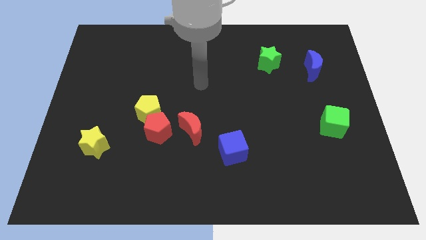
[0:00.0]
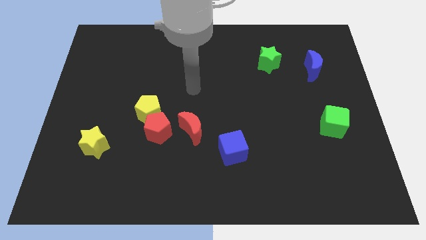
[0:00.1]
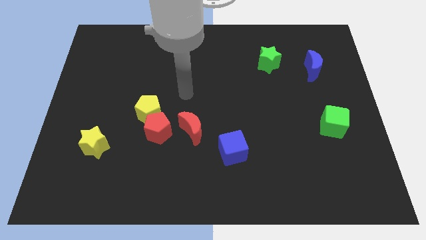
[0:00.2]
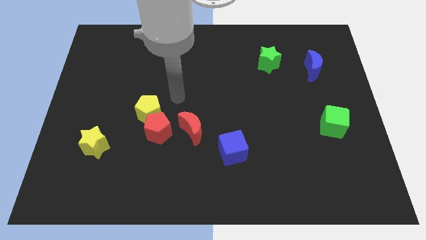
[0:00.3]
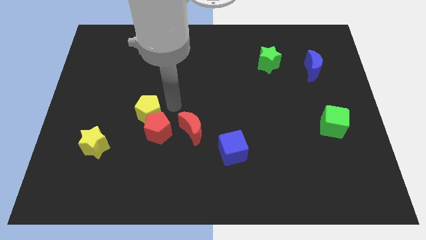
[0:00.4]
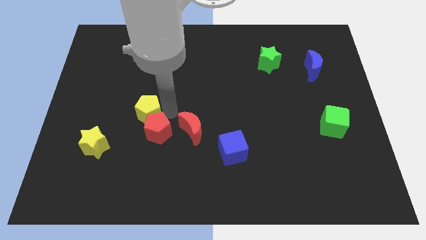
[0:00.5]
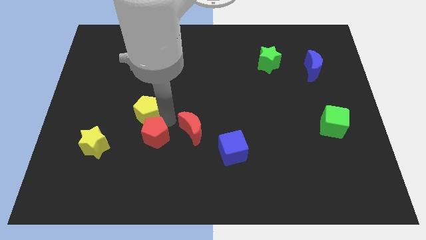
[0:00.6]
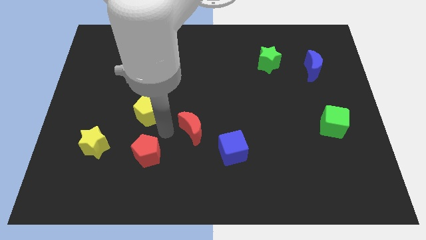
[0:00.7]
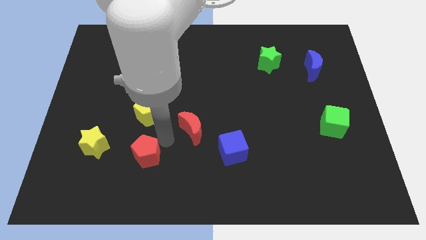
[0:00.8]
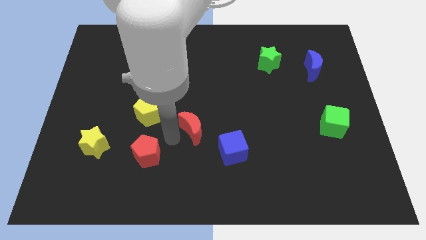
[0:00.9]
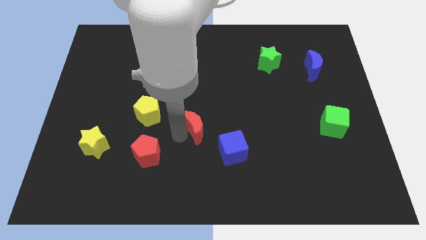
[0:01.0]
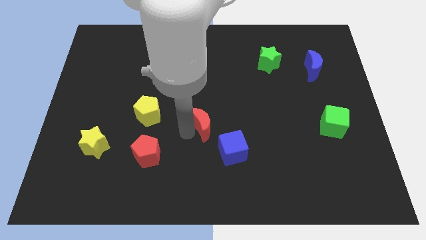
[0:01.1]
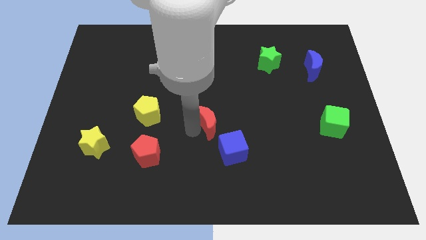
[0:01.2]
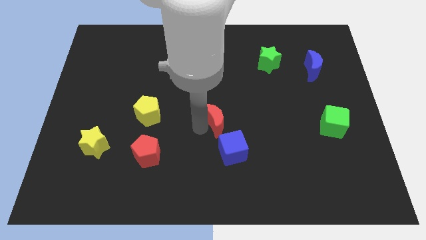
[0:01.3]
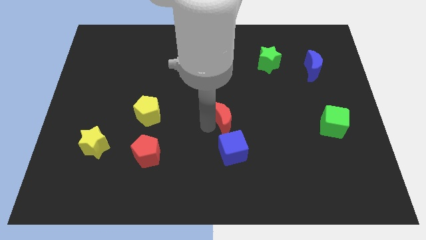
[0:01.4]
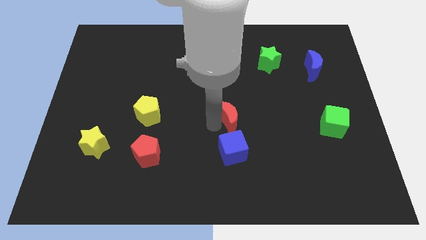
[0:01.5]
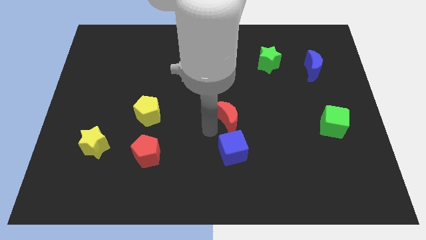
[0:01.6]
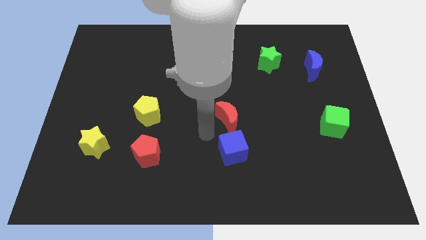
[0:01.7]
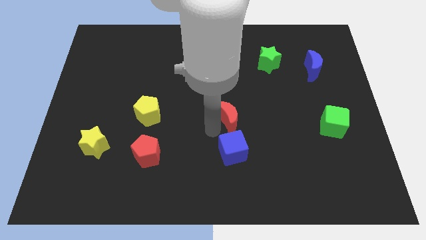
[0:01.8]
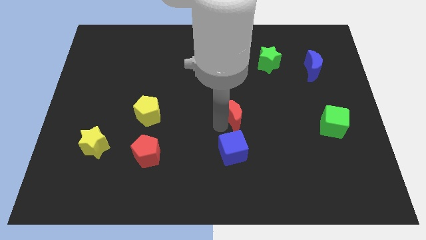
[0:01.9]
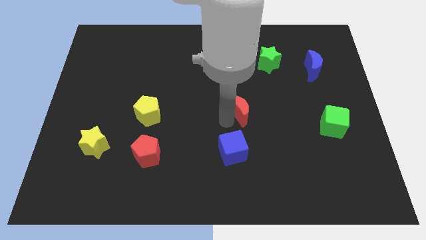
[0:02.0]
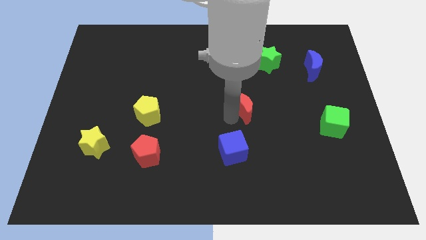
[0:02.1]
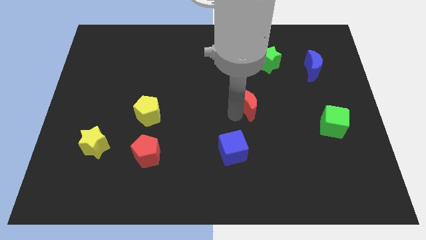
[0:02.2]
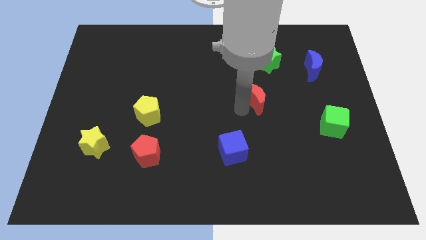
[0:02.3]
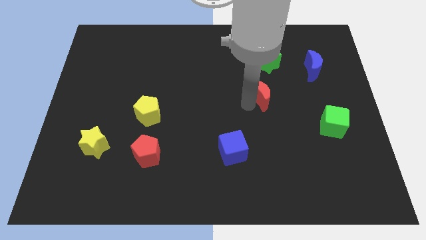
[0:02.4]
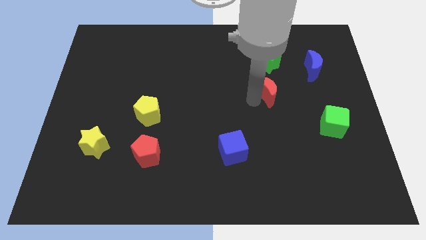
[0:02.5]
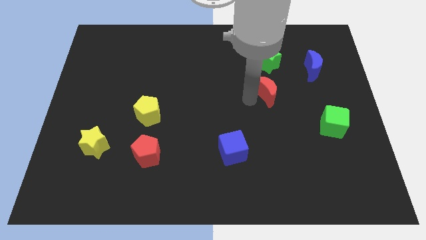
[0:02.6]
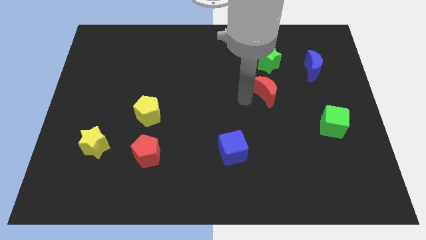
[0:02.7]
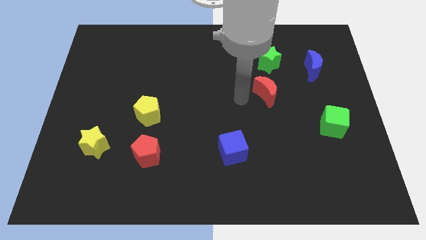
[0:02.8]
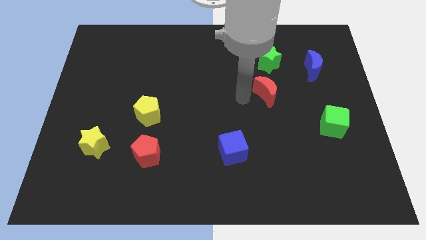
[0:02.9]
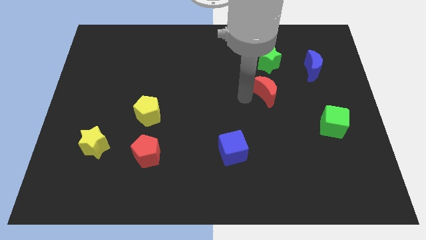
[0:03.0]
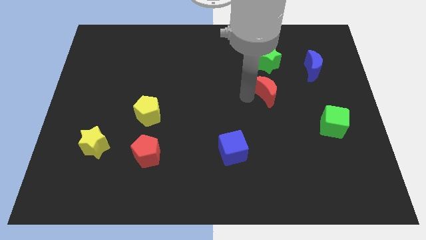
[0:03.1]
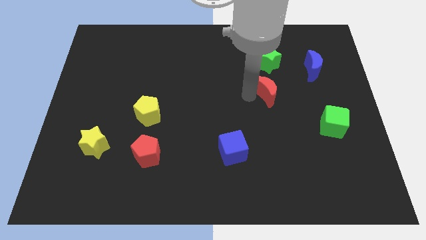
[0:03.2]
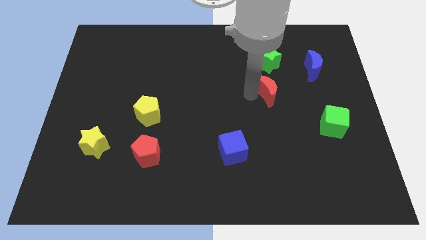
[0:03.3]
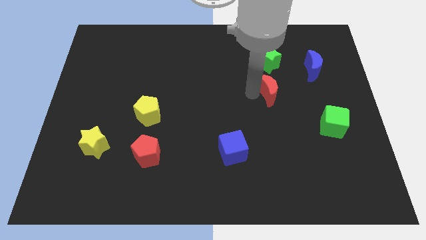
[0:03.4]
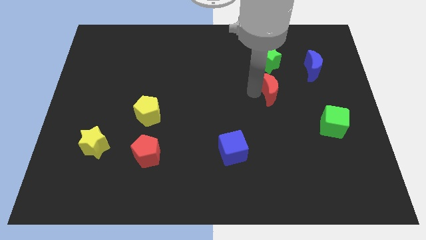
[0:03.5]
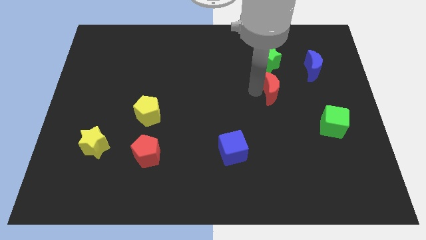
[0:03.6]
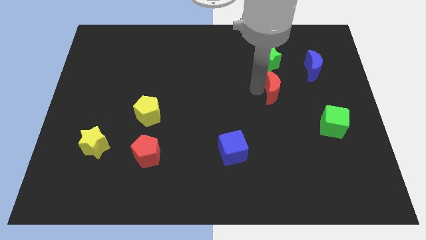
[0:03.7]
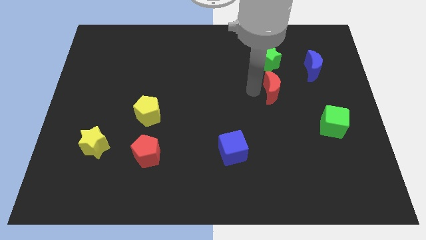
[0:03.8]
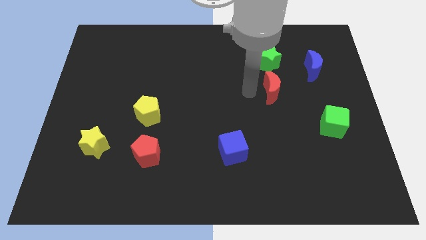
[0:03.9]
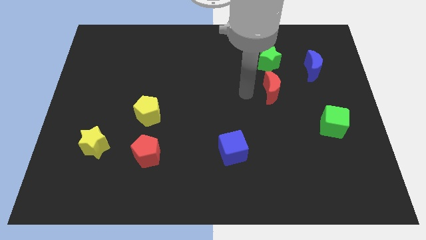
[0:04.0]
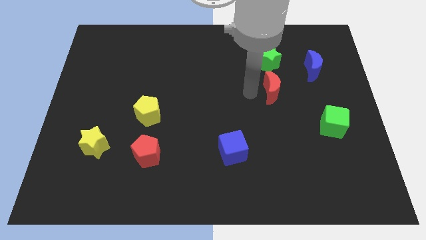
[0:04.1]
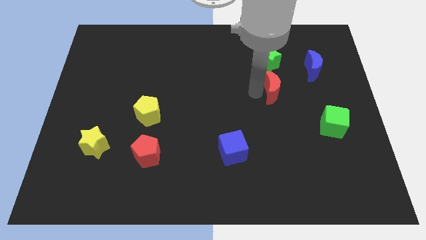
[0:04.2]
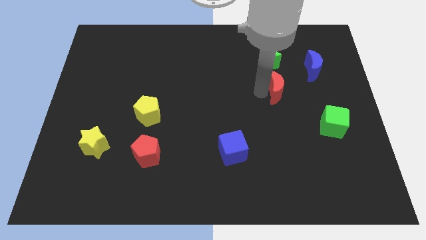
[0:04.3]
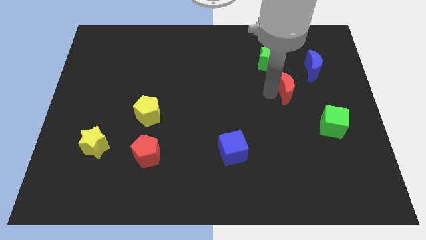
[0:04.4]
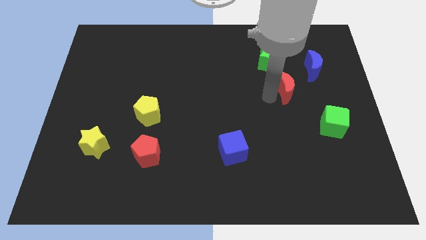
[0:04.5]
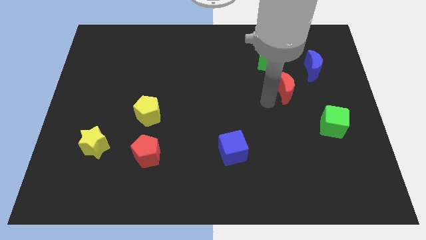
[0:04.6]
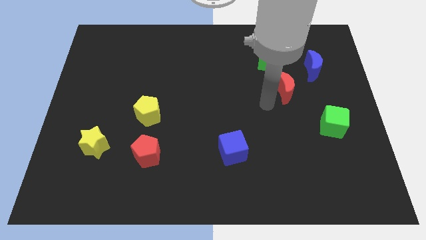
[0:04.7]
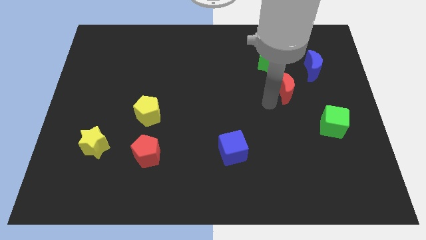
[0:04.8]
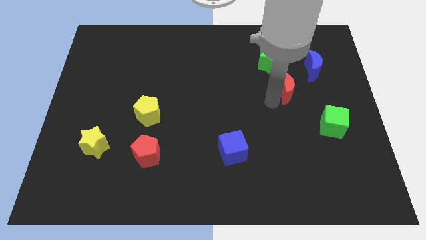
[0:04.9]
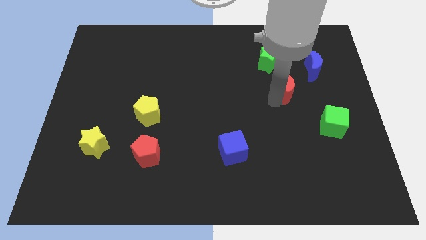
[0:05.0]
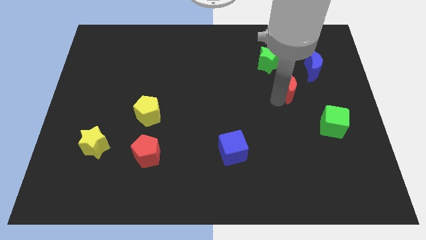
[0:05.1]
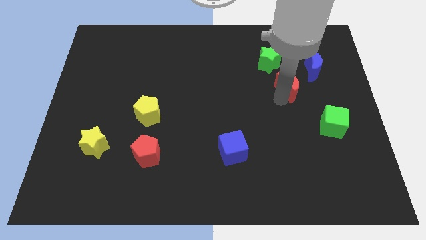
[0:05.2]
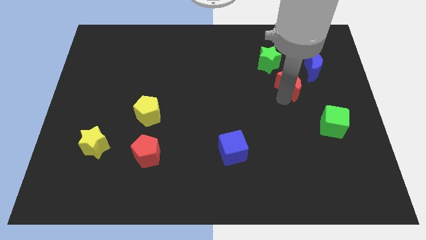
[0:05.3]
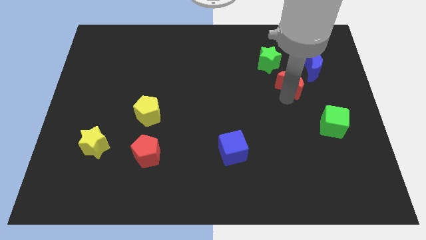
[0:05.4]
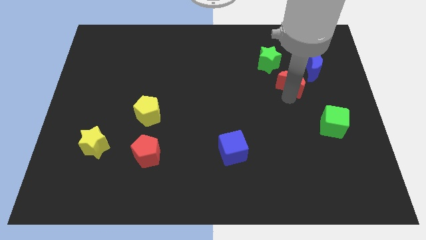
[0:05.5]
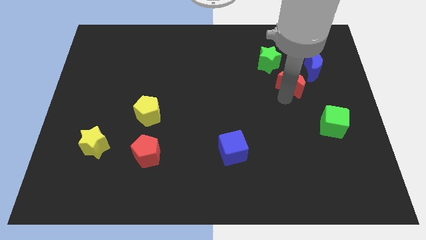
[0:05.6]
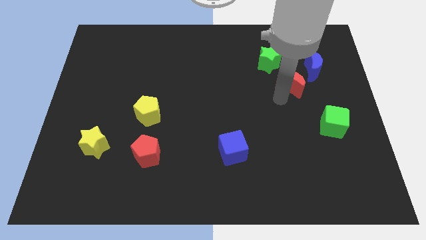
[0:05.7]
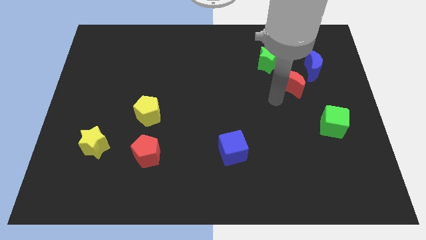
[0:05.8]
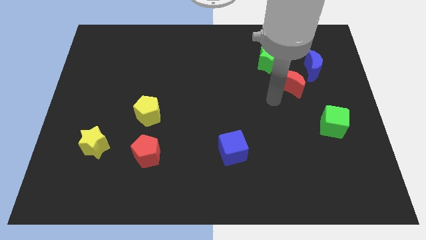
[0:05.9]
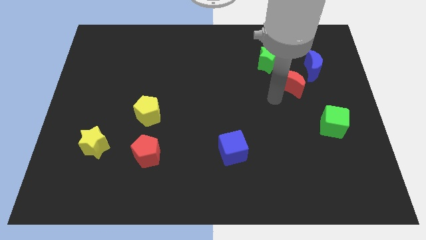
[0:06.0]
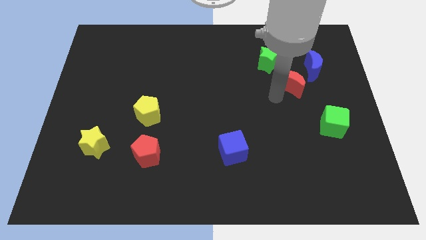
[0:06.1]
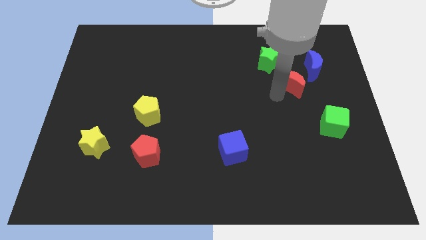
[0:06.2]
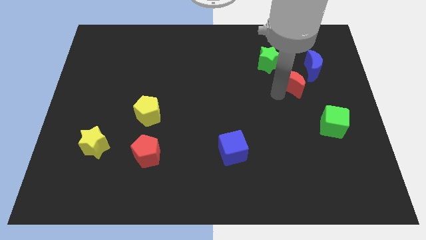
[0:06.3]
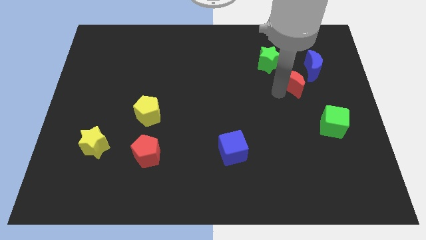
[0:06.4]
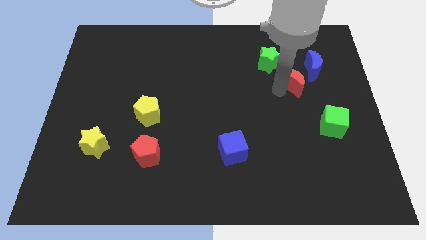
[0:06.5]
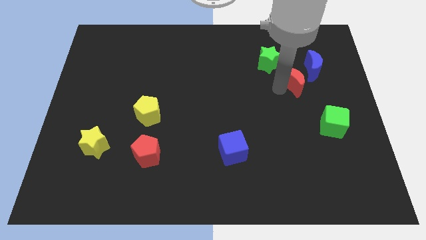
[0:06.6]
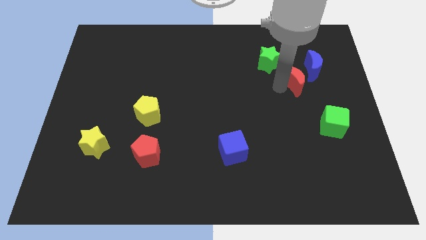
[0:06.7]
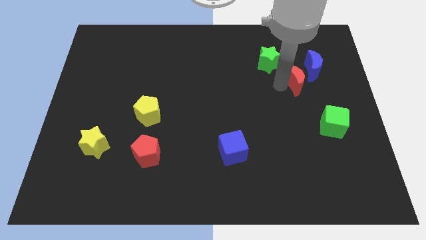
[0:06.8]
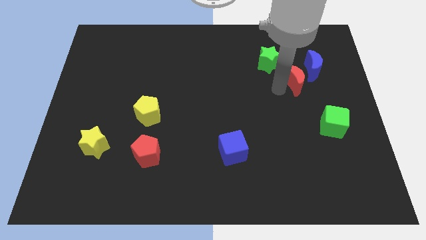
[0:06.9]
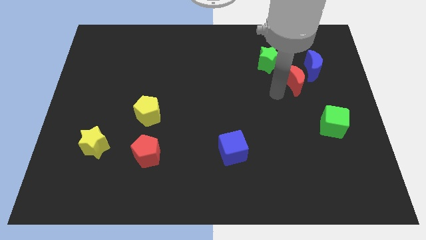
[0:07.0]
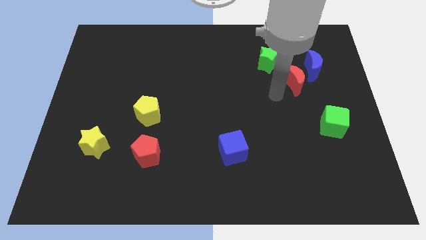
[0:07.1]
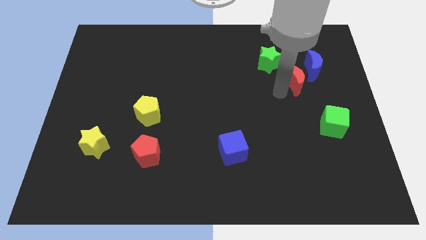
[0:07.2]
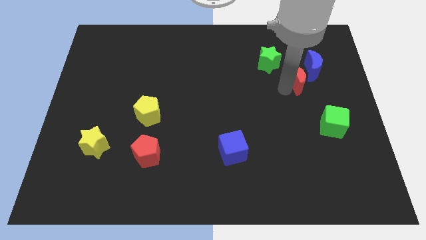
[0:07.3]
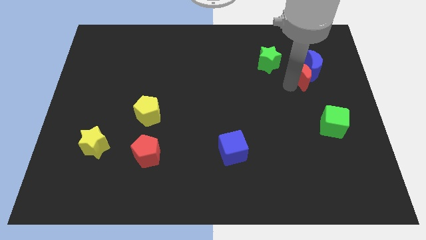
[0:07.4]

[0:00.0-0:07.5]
push the red moon close to the blue moon
